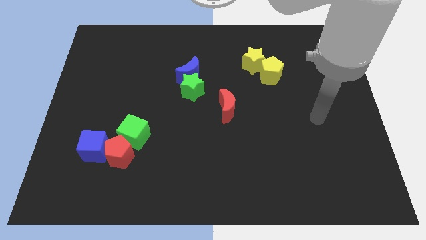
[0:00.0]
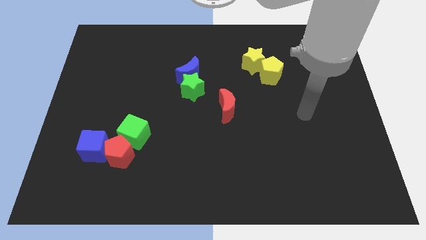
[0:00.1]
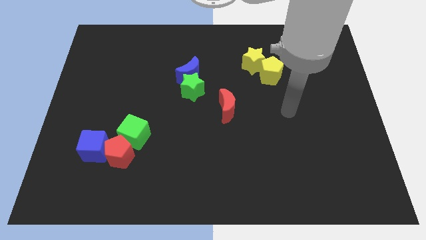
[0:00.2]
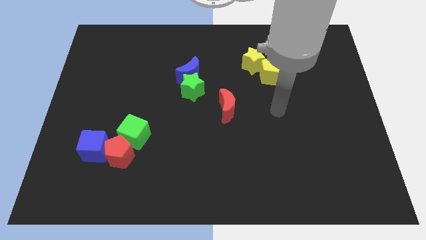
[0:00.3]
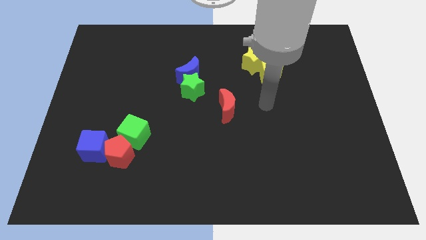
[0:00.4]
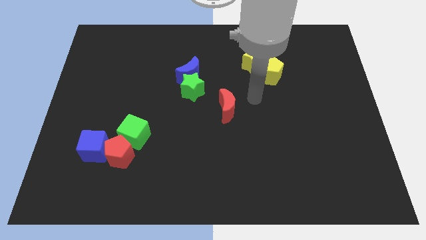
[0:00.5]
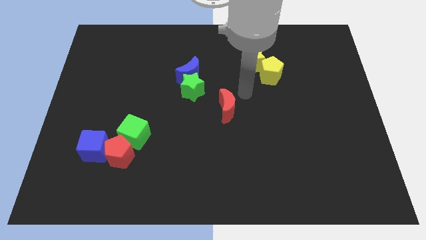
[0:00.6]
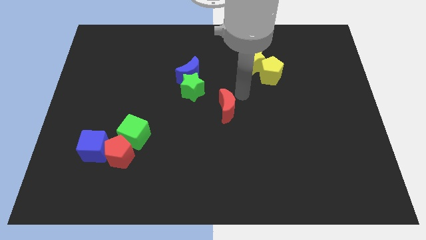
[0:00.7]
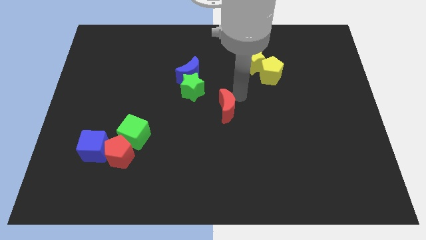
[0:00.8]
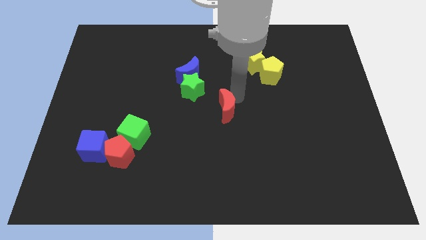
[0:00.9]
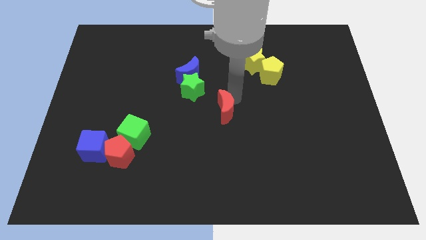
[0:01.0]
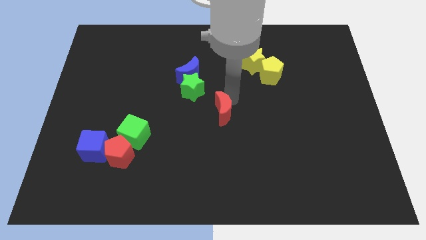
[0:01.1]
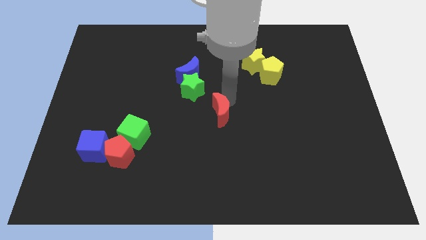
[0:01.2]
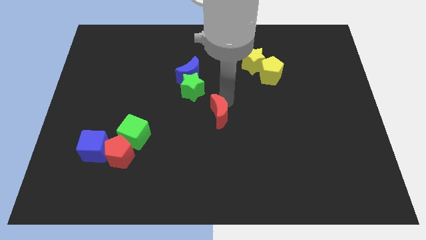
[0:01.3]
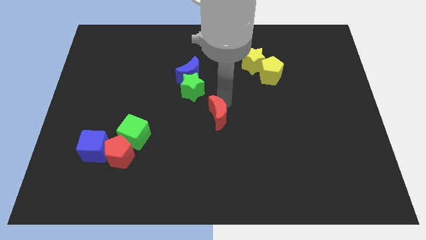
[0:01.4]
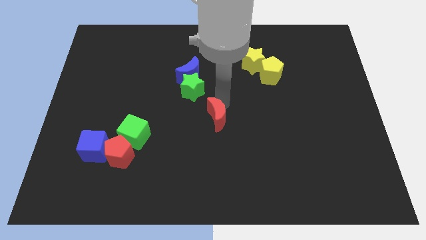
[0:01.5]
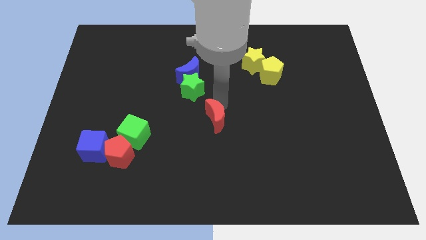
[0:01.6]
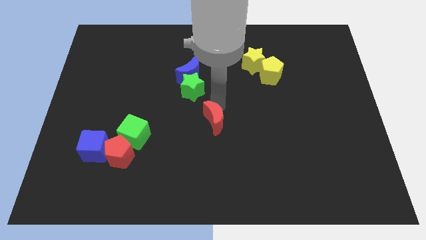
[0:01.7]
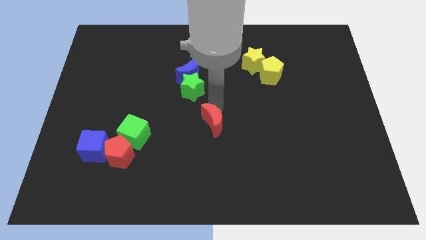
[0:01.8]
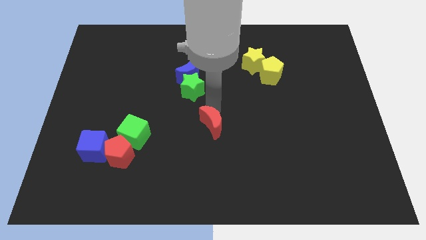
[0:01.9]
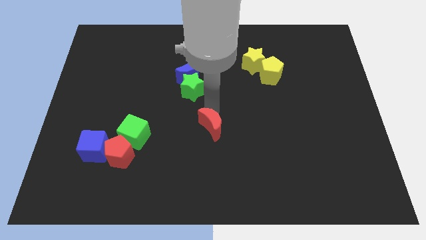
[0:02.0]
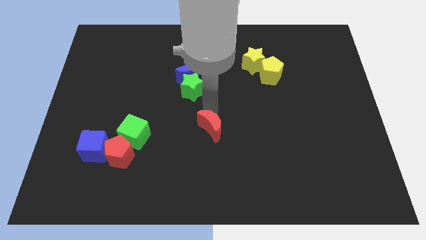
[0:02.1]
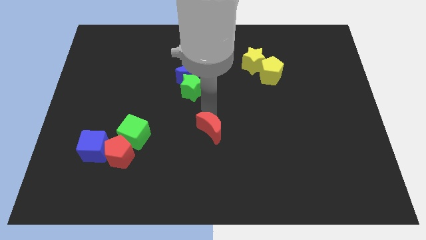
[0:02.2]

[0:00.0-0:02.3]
push the red moon down and then to the left a little

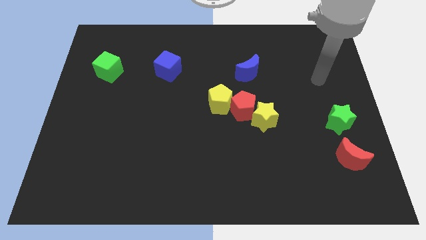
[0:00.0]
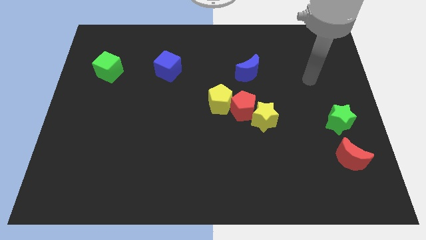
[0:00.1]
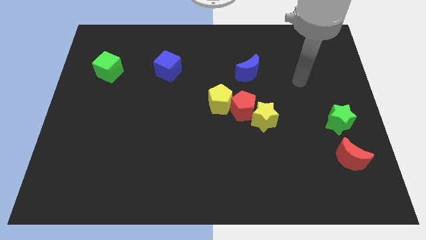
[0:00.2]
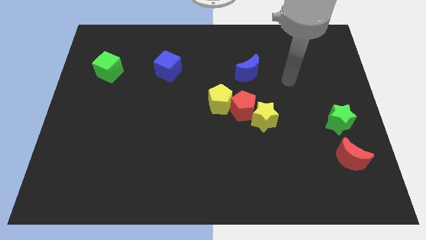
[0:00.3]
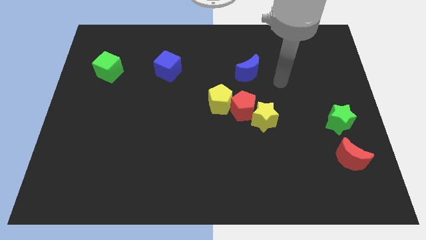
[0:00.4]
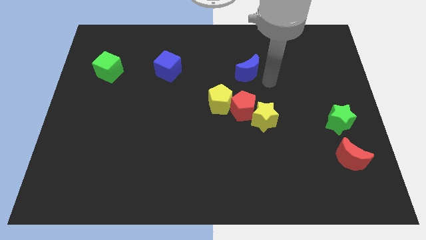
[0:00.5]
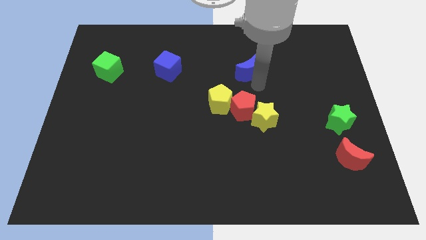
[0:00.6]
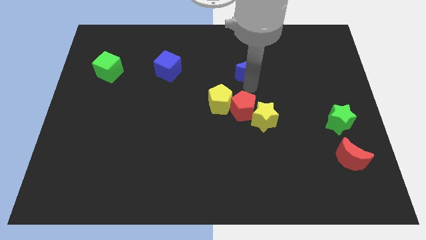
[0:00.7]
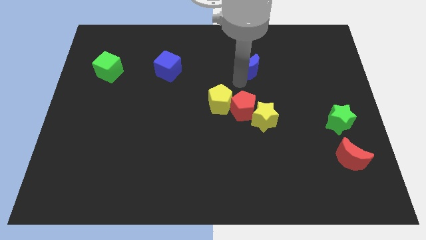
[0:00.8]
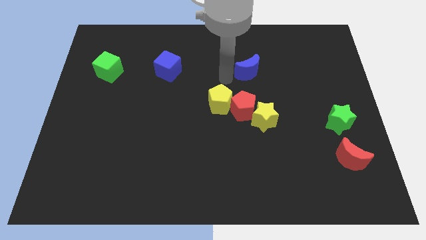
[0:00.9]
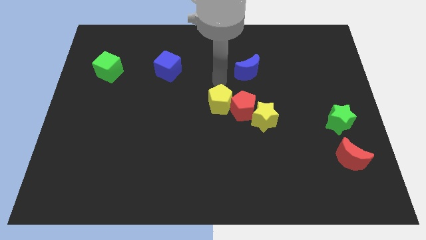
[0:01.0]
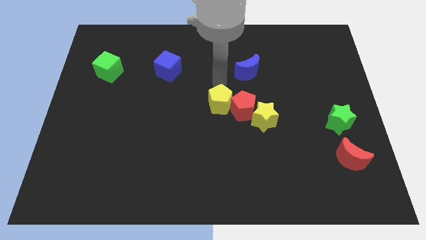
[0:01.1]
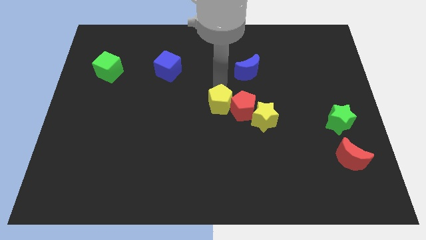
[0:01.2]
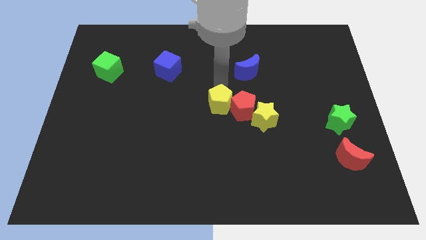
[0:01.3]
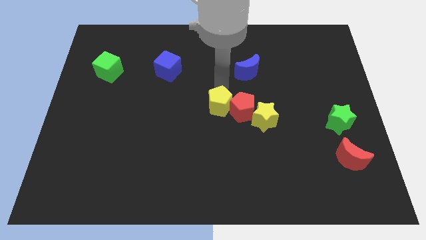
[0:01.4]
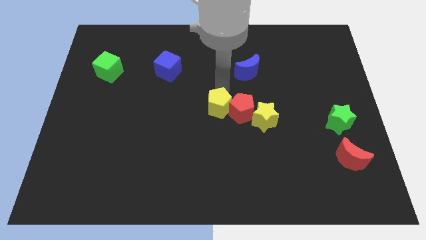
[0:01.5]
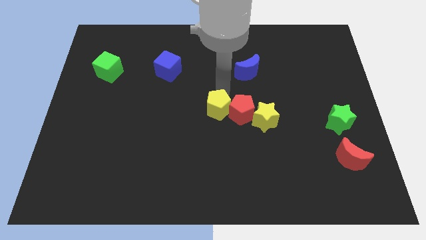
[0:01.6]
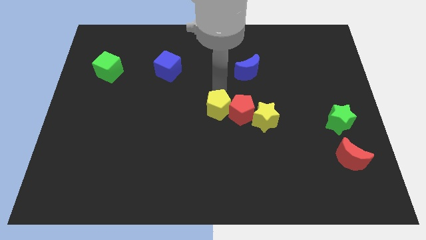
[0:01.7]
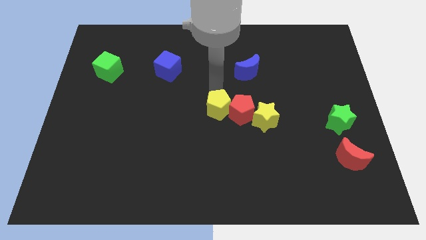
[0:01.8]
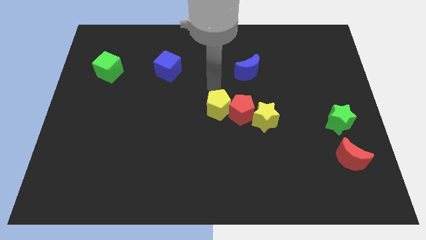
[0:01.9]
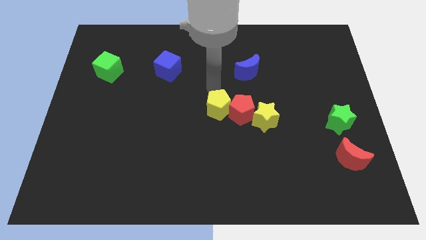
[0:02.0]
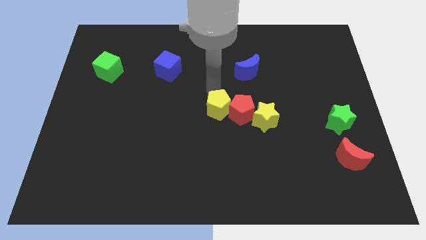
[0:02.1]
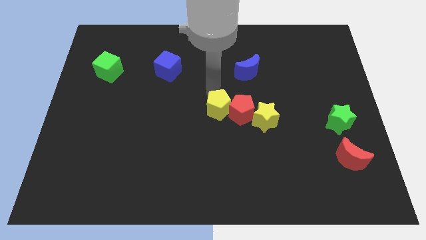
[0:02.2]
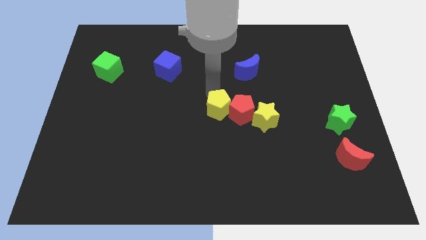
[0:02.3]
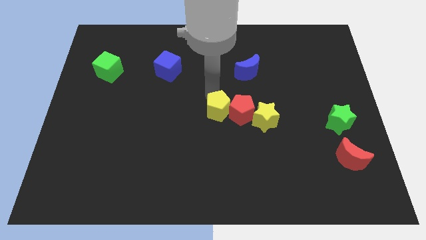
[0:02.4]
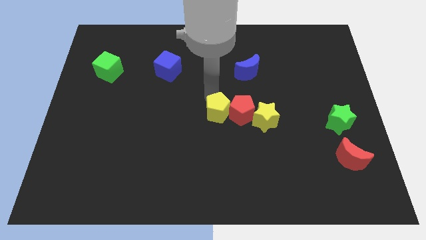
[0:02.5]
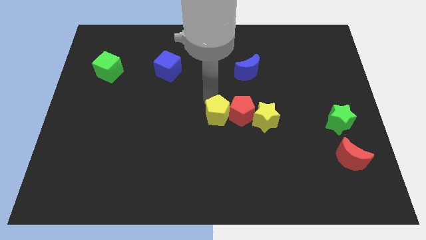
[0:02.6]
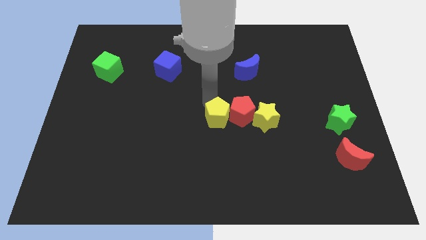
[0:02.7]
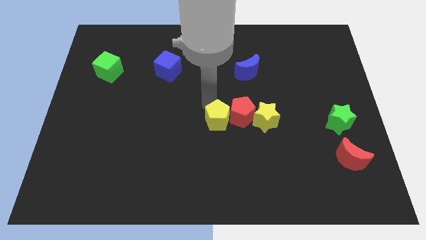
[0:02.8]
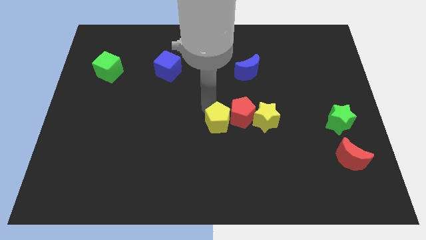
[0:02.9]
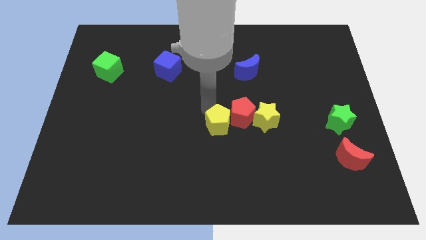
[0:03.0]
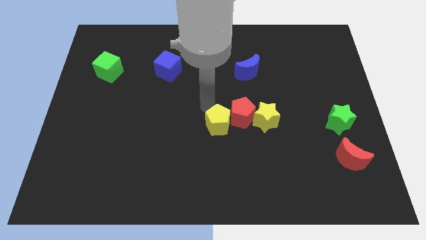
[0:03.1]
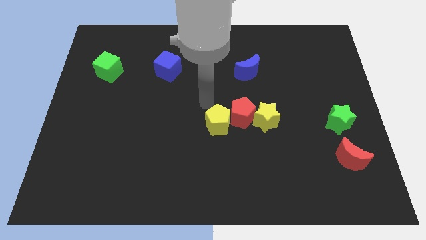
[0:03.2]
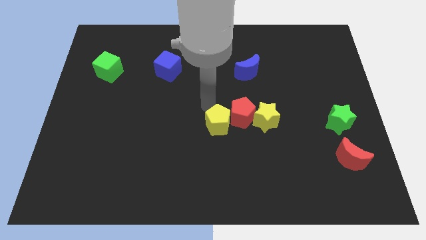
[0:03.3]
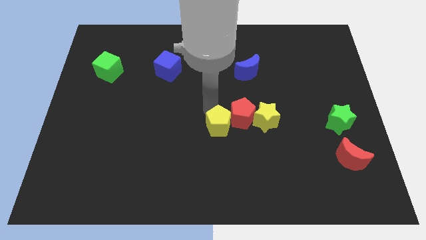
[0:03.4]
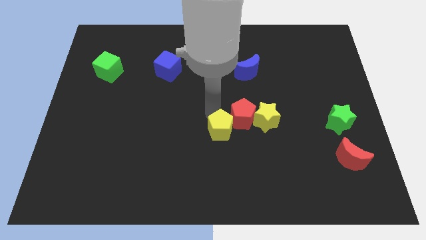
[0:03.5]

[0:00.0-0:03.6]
slide the yellow pentagon downwards slightly

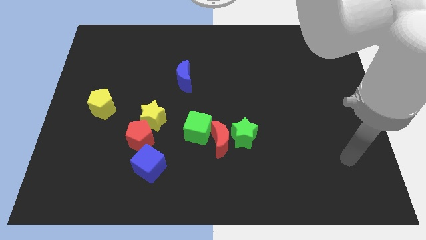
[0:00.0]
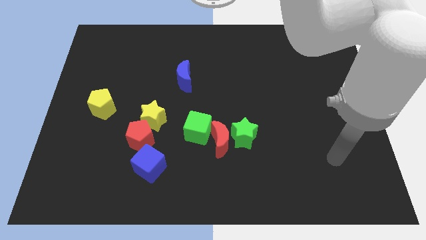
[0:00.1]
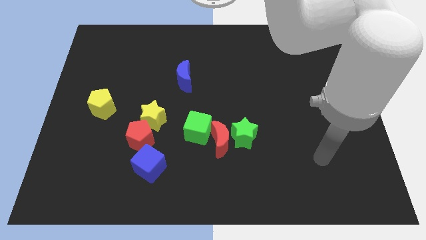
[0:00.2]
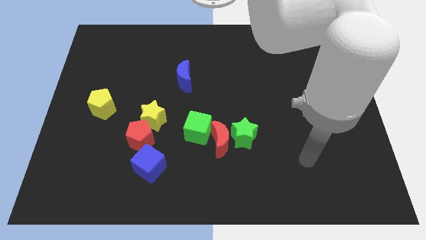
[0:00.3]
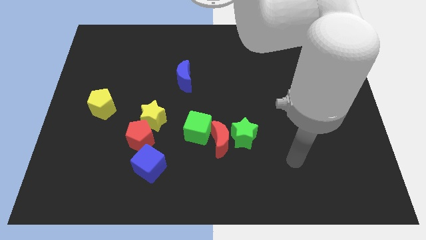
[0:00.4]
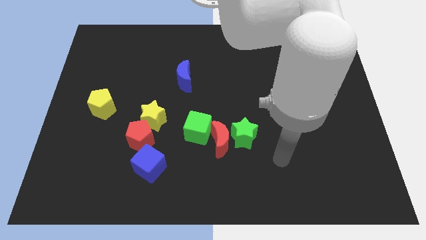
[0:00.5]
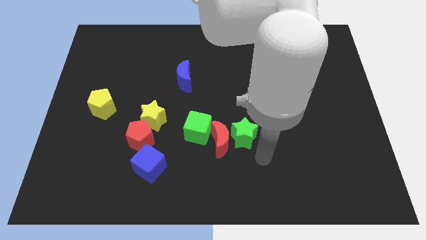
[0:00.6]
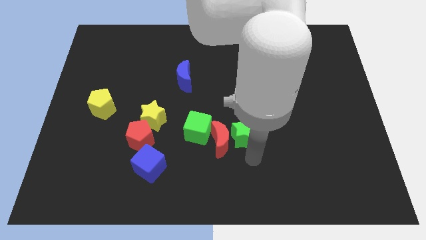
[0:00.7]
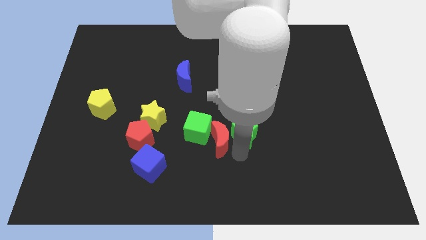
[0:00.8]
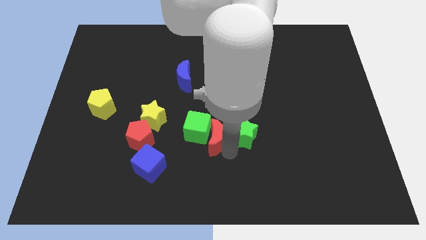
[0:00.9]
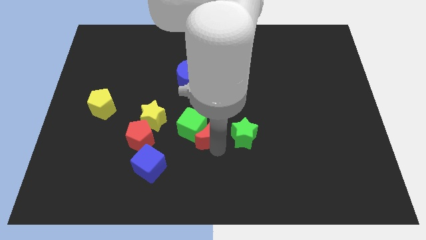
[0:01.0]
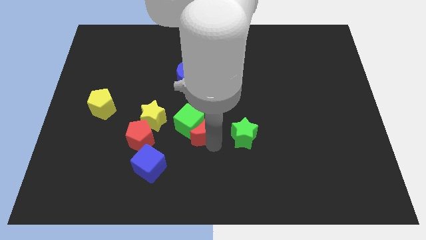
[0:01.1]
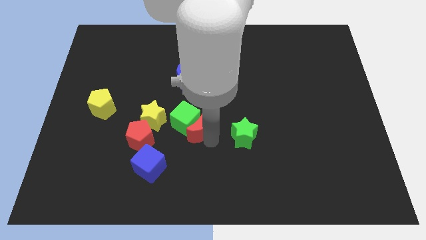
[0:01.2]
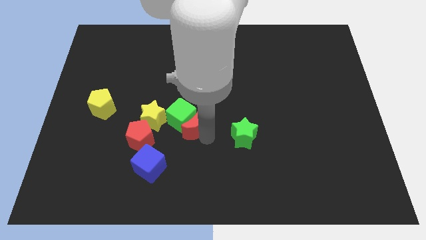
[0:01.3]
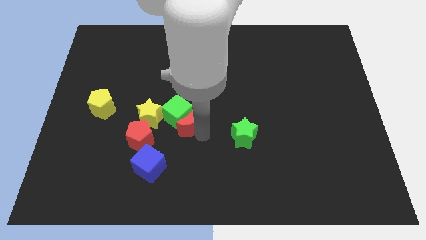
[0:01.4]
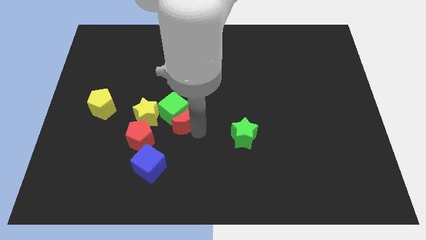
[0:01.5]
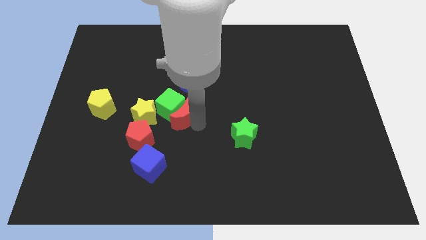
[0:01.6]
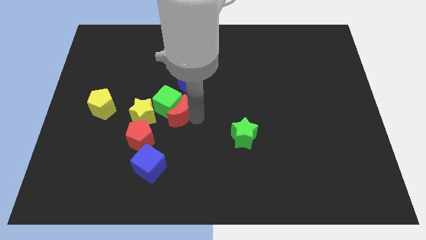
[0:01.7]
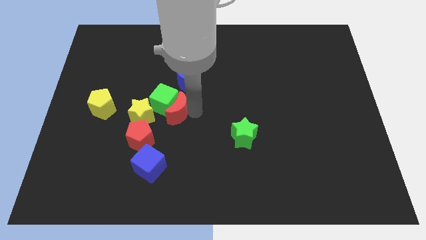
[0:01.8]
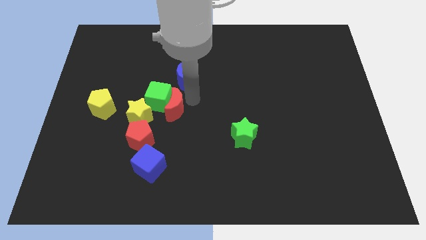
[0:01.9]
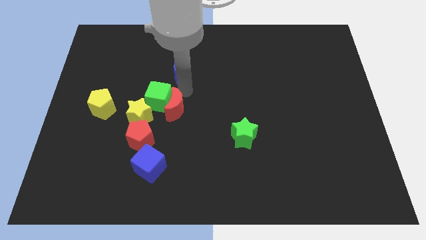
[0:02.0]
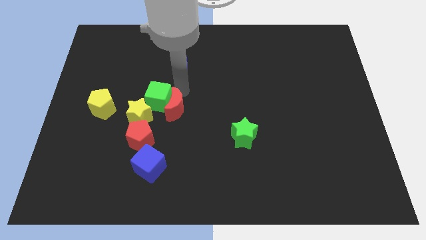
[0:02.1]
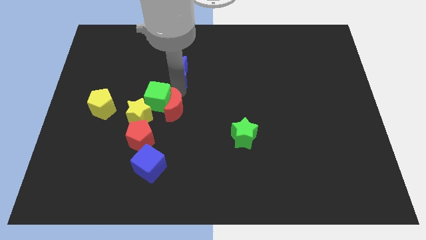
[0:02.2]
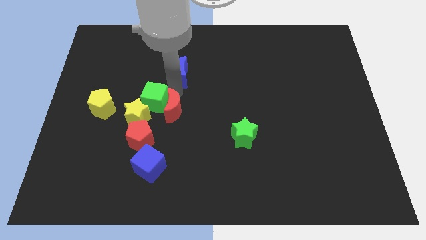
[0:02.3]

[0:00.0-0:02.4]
slide the green cube left a little

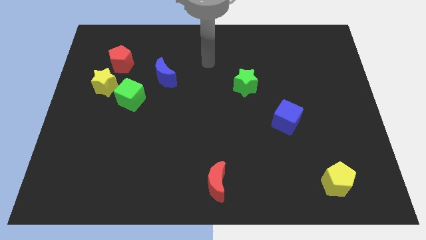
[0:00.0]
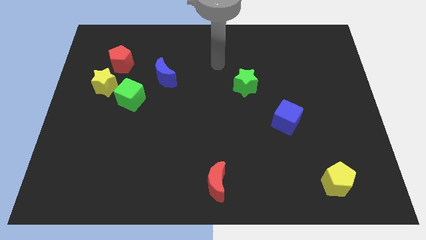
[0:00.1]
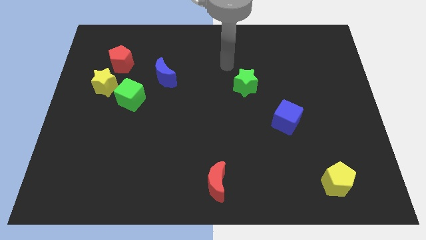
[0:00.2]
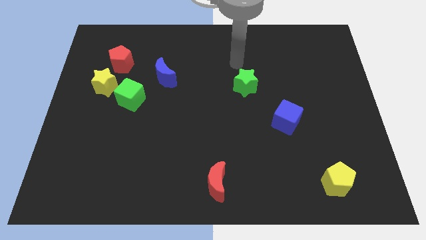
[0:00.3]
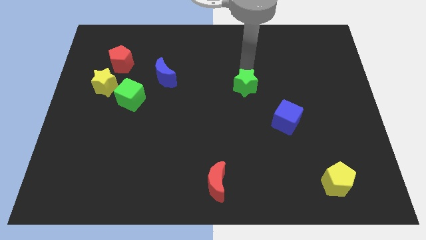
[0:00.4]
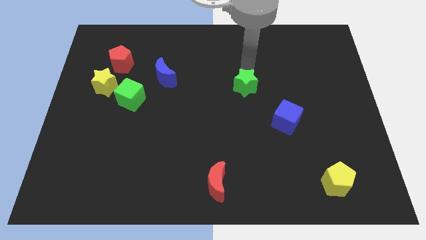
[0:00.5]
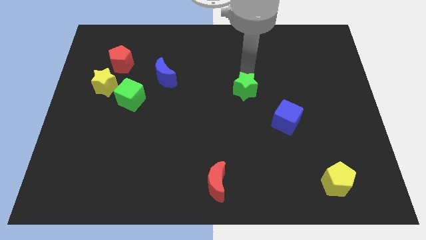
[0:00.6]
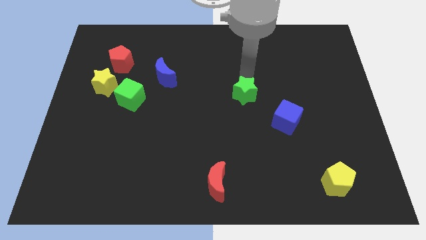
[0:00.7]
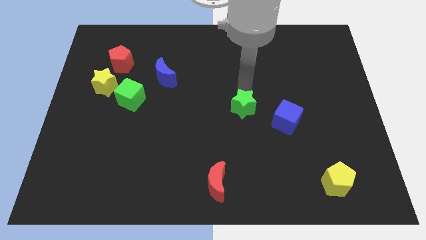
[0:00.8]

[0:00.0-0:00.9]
slide the green star slightly down
